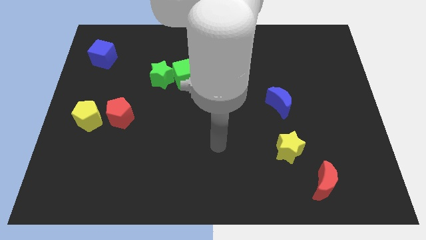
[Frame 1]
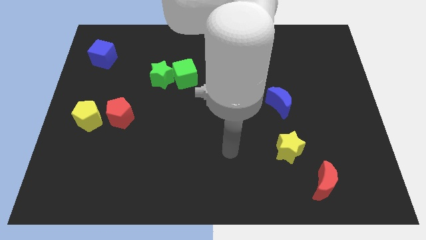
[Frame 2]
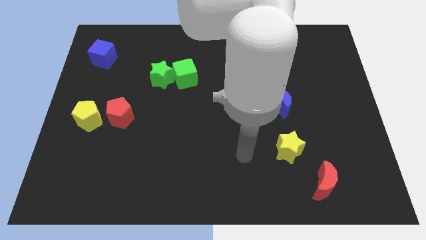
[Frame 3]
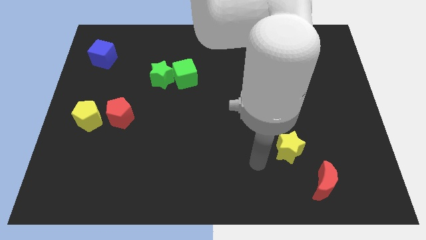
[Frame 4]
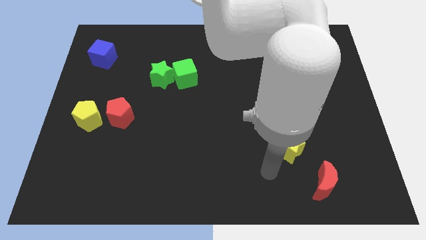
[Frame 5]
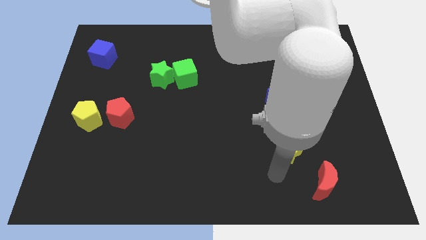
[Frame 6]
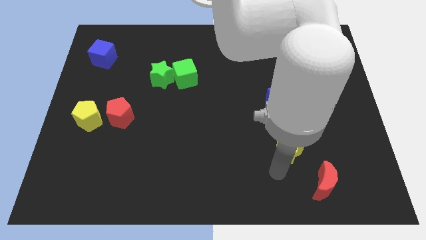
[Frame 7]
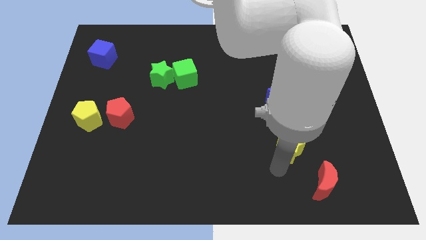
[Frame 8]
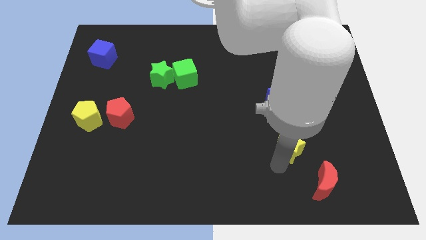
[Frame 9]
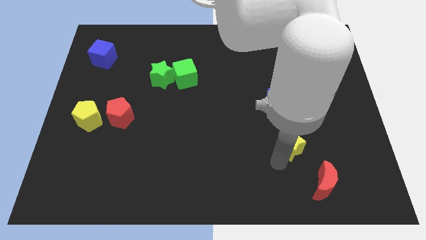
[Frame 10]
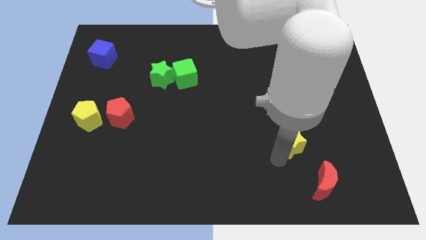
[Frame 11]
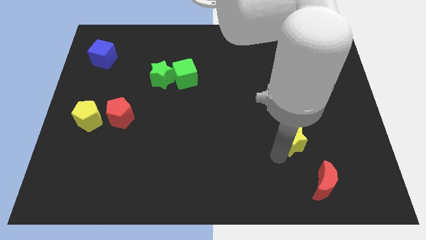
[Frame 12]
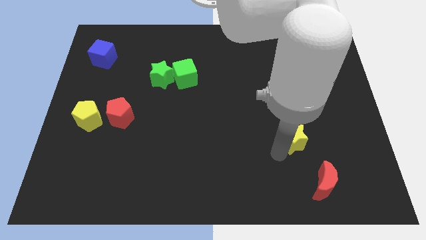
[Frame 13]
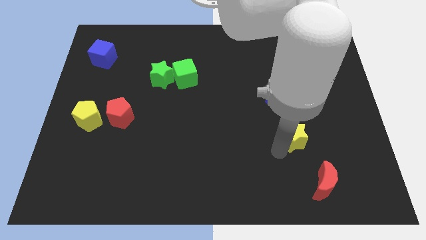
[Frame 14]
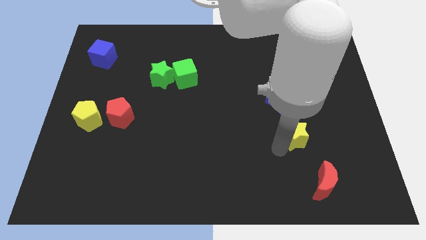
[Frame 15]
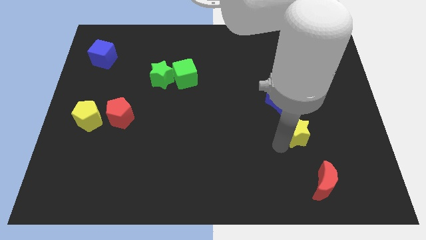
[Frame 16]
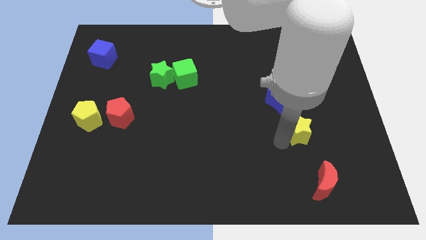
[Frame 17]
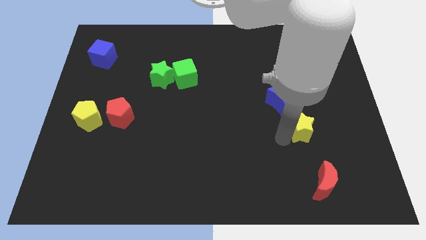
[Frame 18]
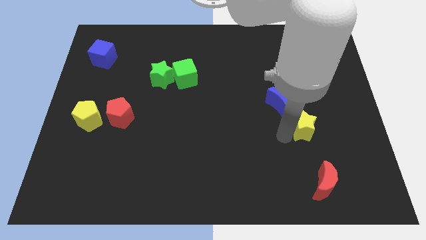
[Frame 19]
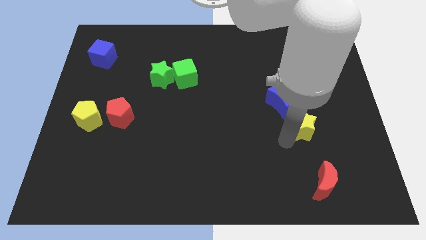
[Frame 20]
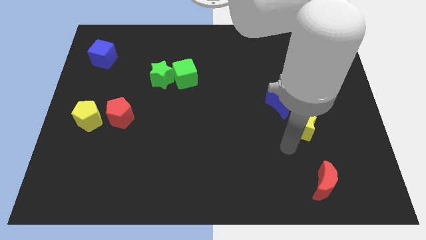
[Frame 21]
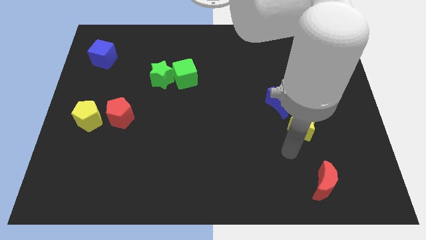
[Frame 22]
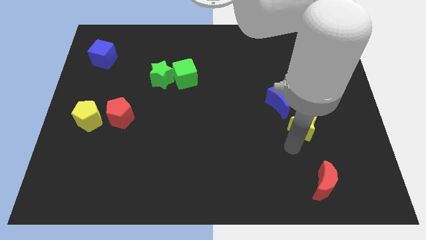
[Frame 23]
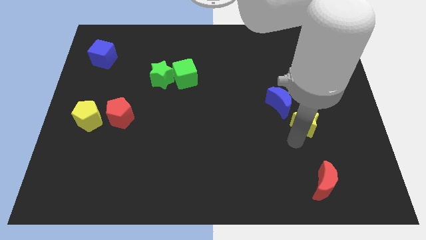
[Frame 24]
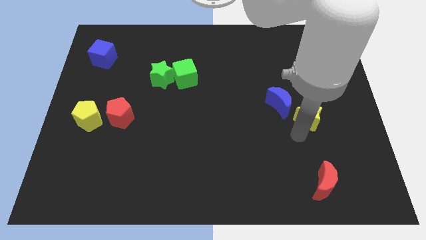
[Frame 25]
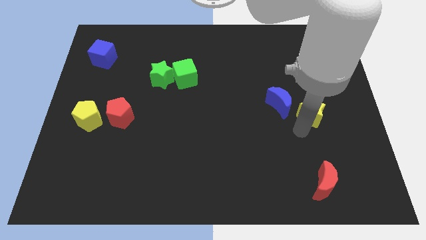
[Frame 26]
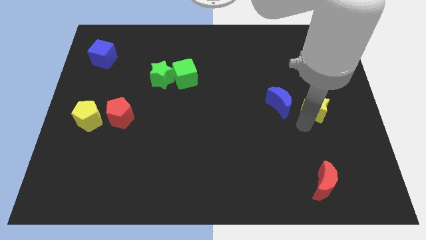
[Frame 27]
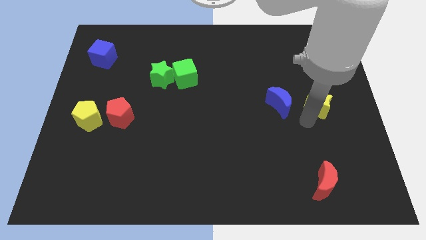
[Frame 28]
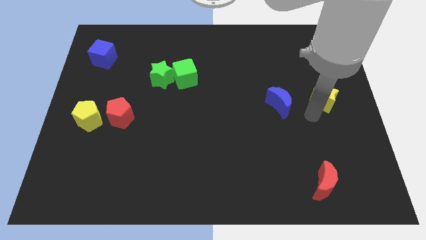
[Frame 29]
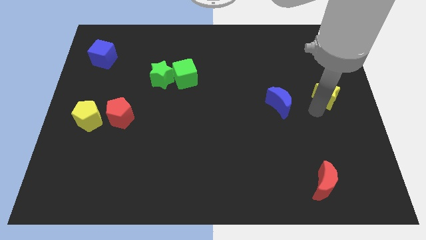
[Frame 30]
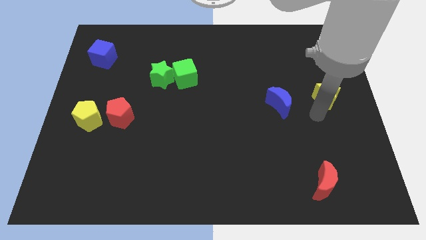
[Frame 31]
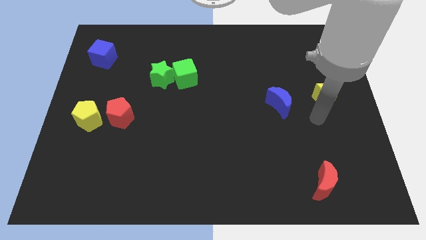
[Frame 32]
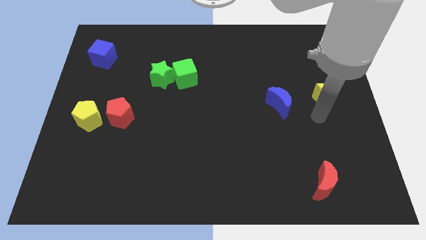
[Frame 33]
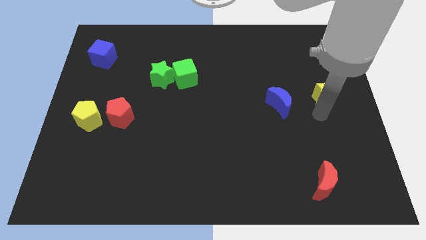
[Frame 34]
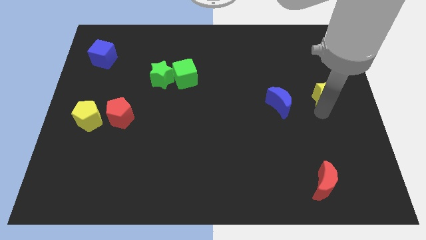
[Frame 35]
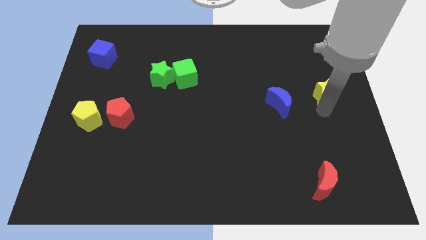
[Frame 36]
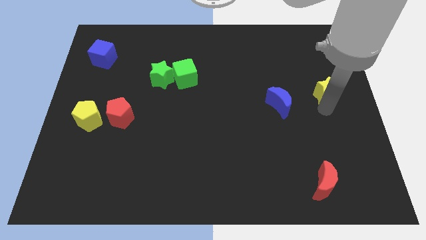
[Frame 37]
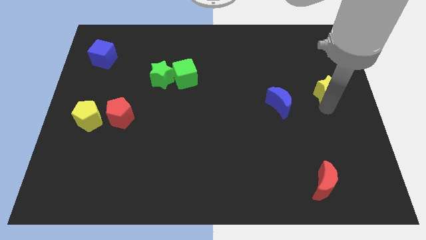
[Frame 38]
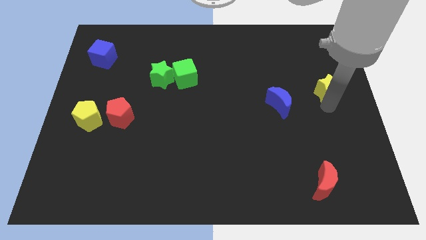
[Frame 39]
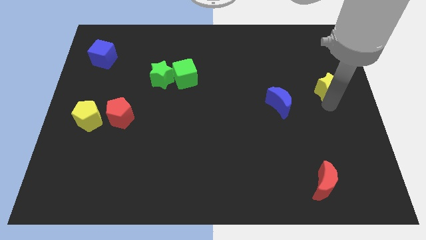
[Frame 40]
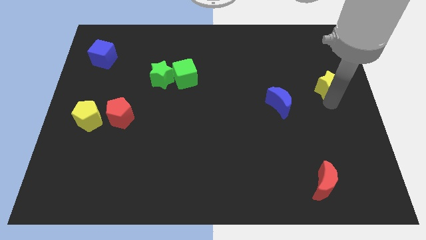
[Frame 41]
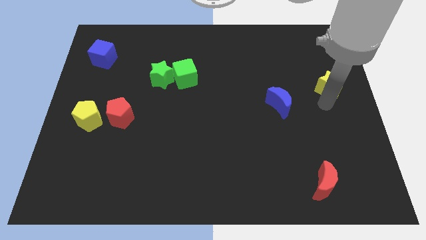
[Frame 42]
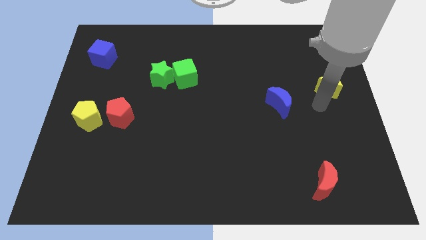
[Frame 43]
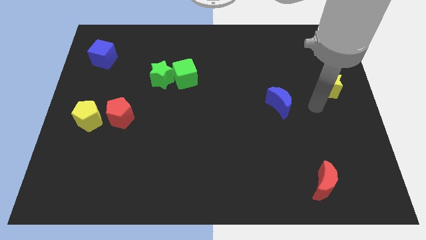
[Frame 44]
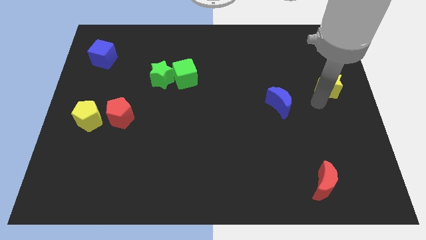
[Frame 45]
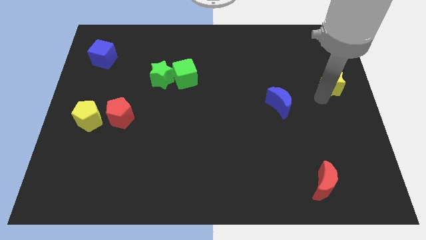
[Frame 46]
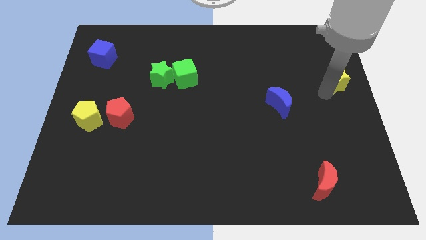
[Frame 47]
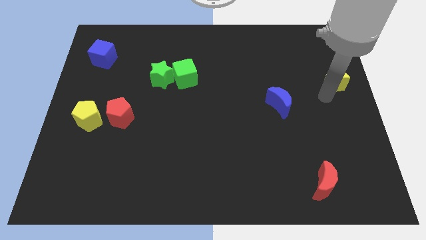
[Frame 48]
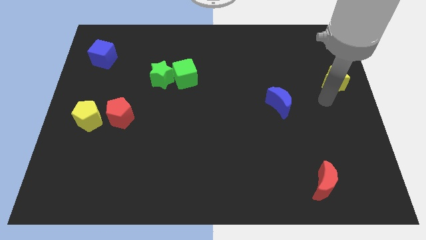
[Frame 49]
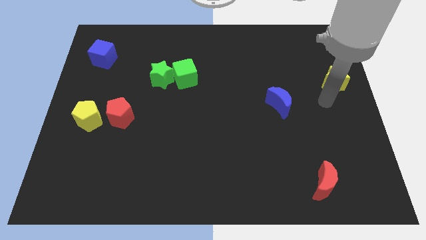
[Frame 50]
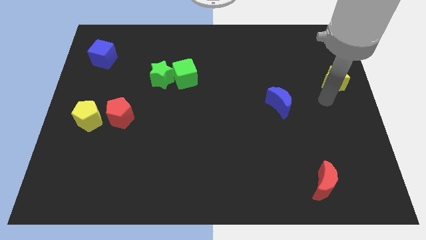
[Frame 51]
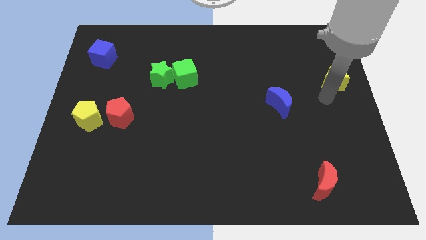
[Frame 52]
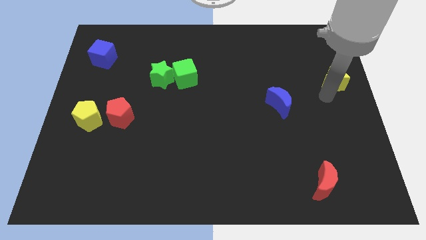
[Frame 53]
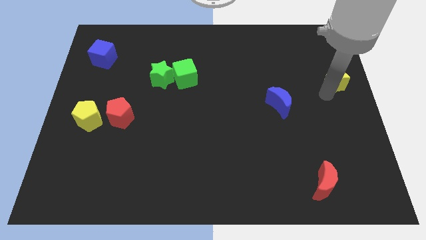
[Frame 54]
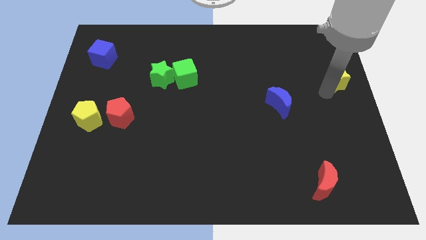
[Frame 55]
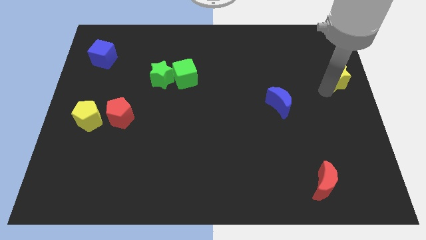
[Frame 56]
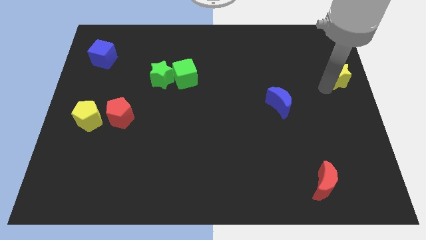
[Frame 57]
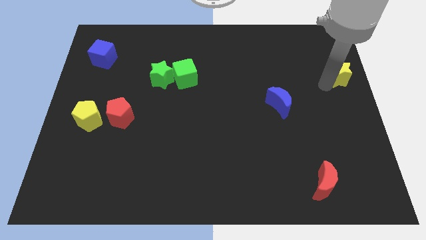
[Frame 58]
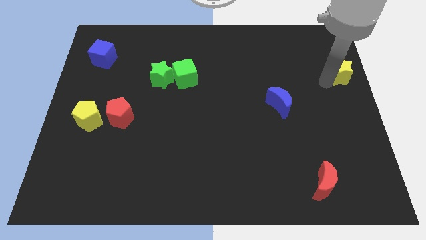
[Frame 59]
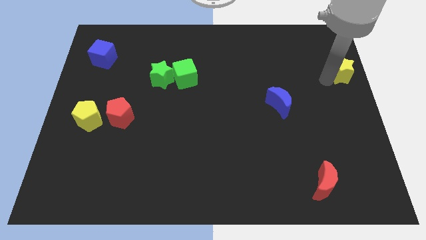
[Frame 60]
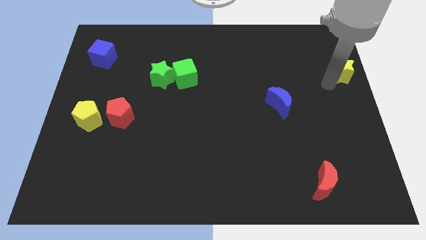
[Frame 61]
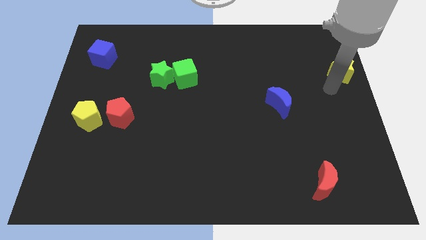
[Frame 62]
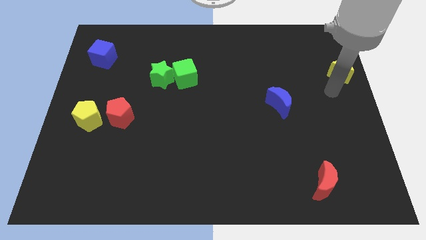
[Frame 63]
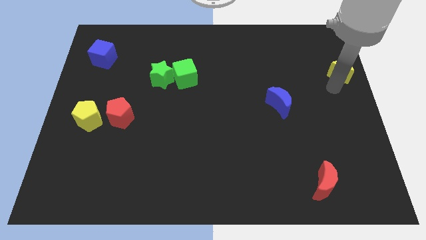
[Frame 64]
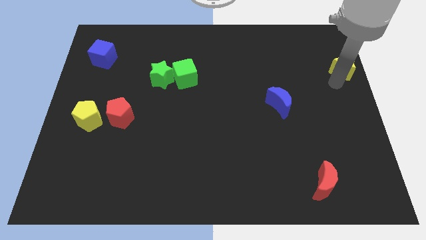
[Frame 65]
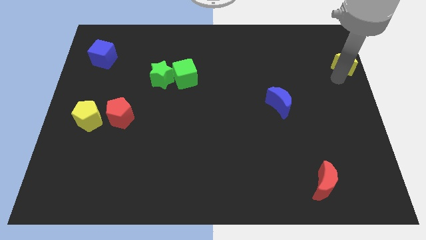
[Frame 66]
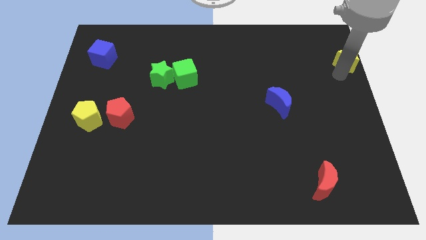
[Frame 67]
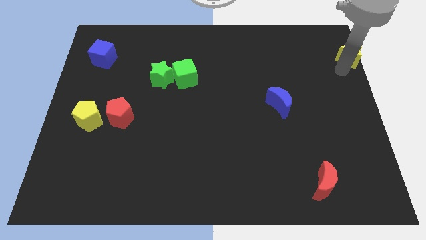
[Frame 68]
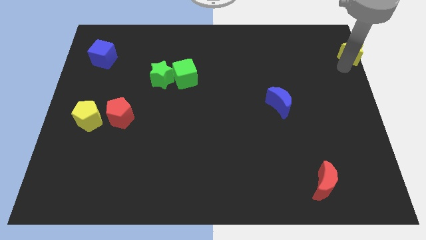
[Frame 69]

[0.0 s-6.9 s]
push the yellow star to the top right
